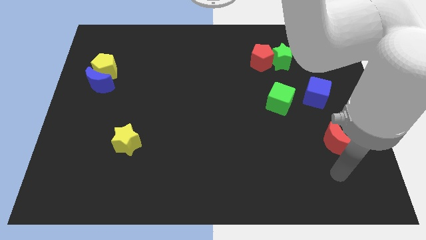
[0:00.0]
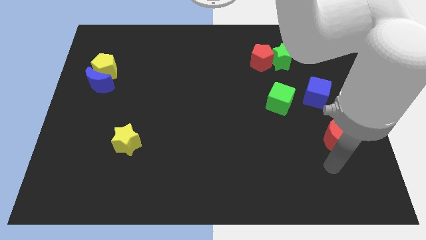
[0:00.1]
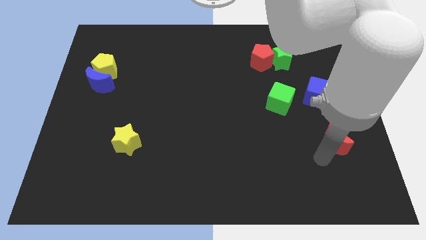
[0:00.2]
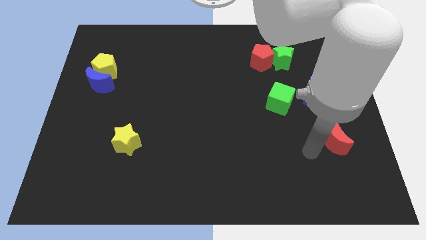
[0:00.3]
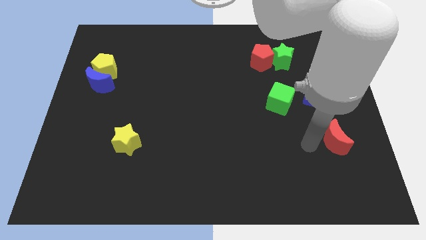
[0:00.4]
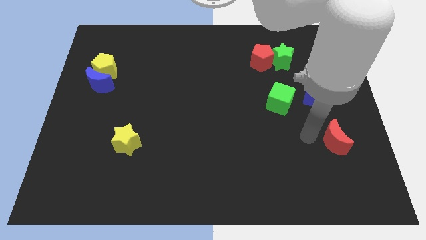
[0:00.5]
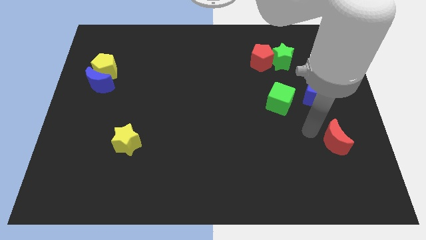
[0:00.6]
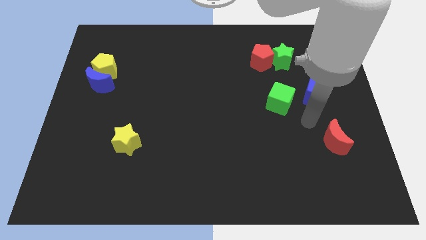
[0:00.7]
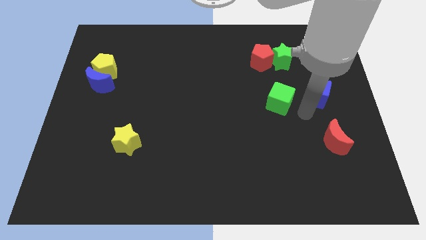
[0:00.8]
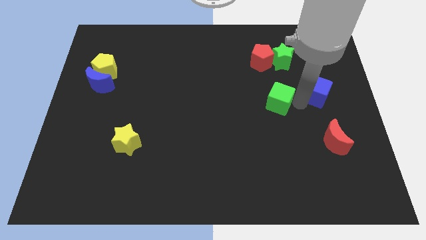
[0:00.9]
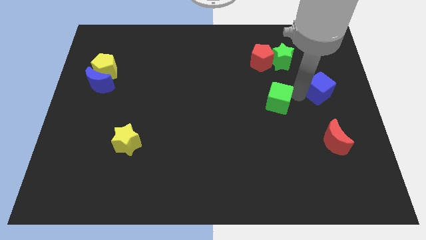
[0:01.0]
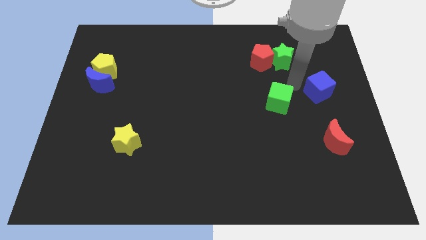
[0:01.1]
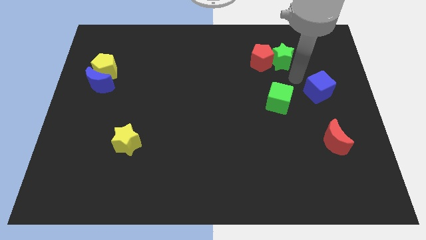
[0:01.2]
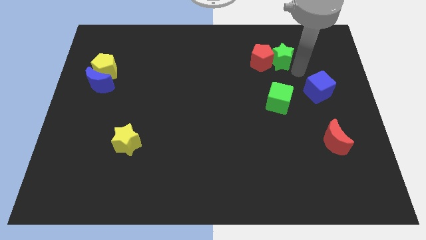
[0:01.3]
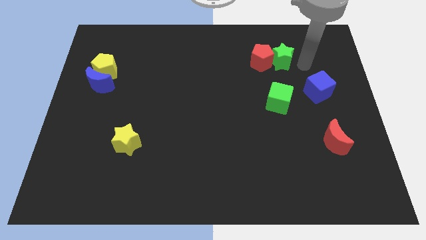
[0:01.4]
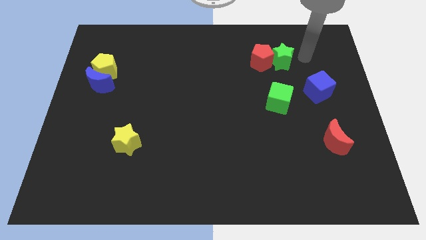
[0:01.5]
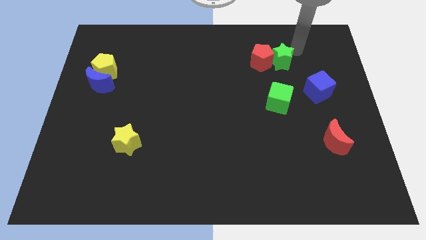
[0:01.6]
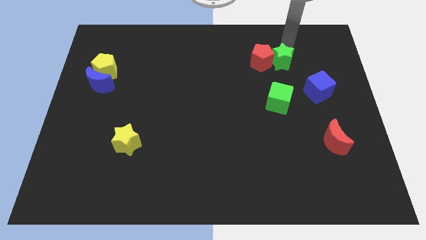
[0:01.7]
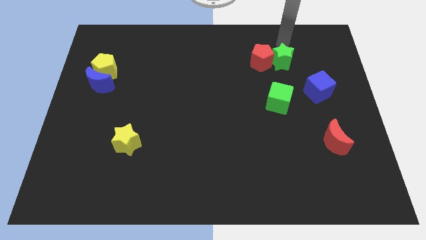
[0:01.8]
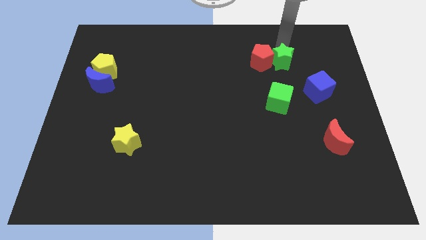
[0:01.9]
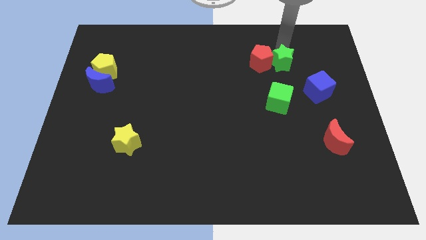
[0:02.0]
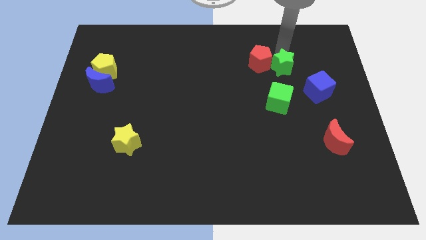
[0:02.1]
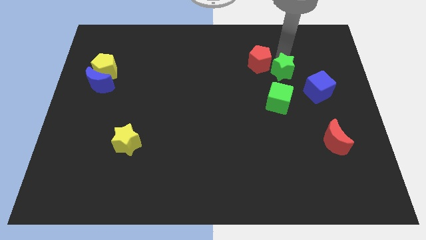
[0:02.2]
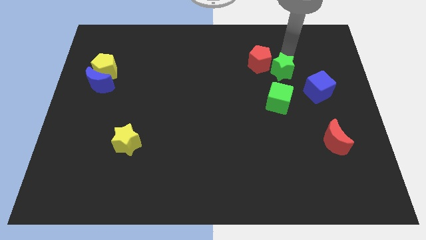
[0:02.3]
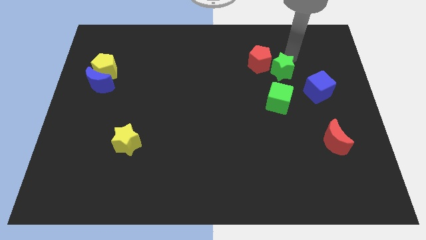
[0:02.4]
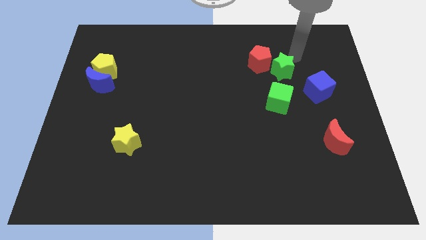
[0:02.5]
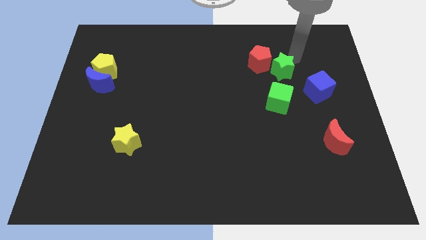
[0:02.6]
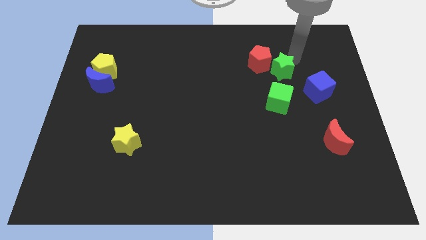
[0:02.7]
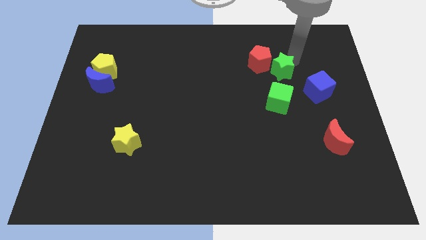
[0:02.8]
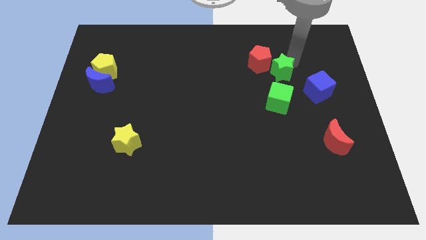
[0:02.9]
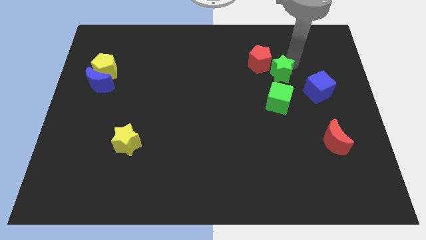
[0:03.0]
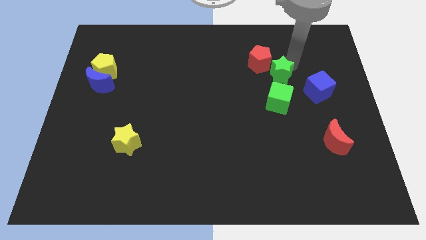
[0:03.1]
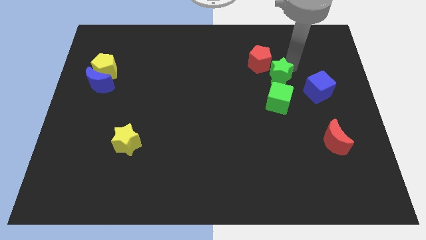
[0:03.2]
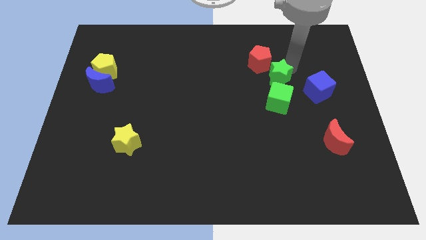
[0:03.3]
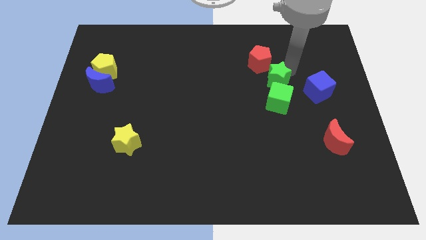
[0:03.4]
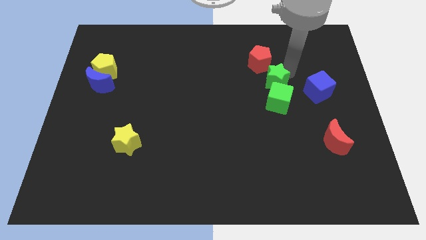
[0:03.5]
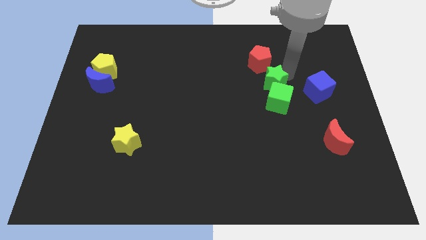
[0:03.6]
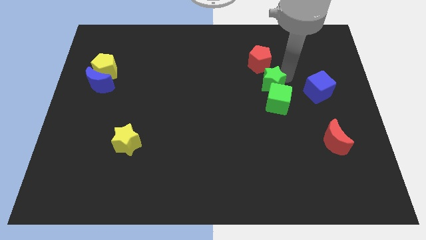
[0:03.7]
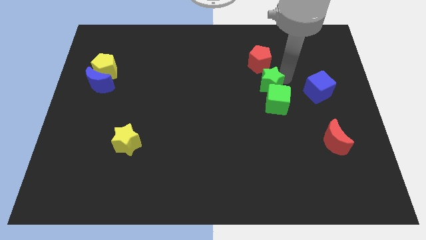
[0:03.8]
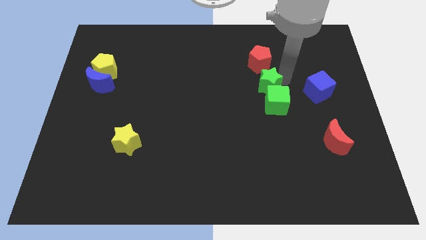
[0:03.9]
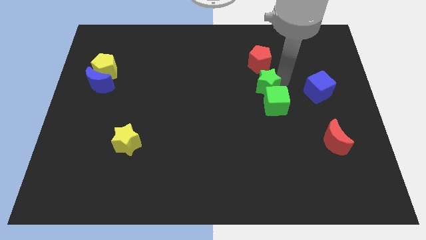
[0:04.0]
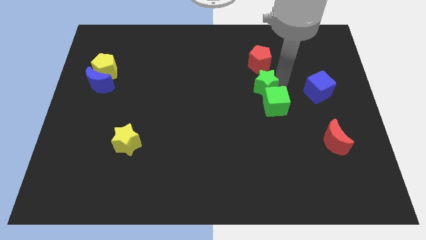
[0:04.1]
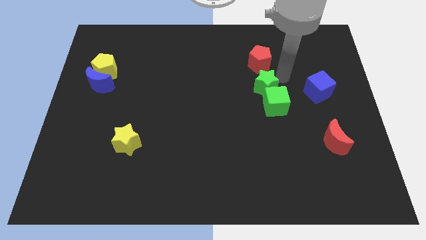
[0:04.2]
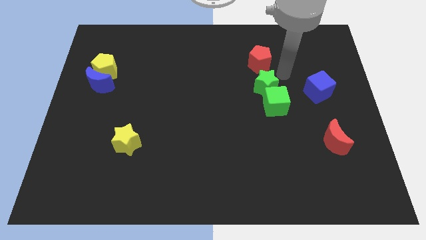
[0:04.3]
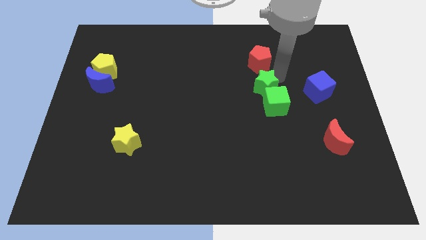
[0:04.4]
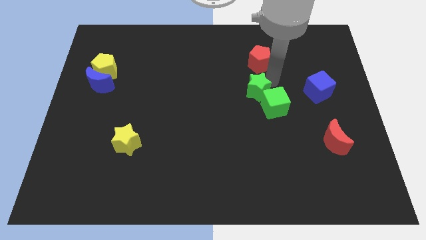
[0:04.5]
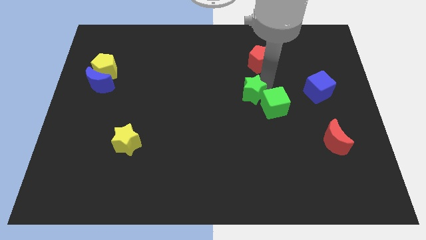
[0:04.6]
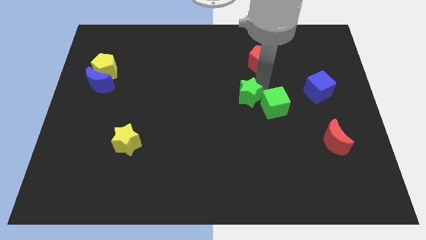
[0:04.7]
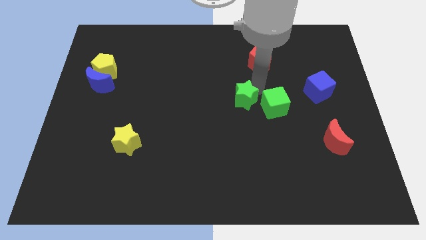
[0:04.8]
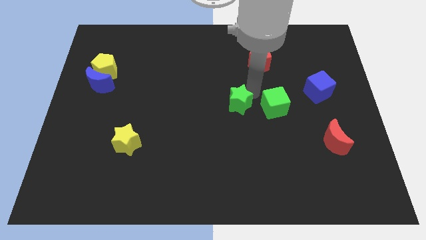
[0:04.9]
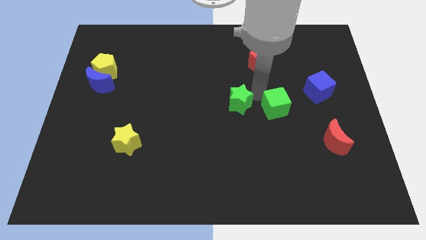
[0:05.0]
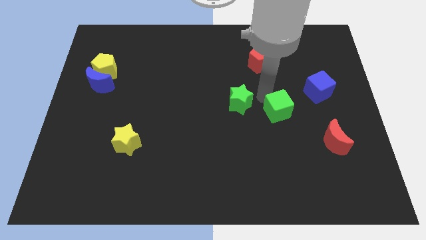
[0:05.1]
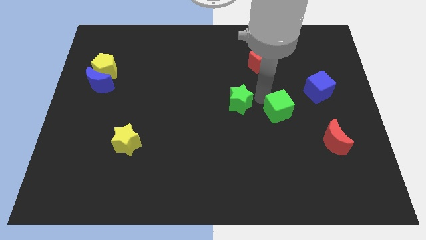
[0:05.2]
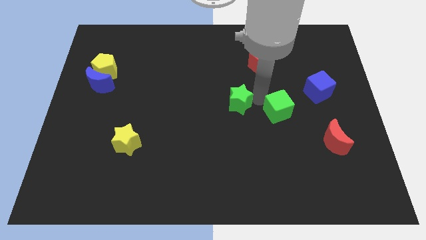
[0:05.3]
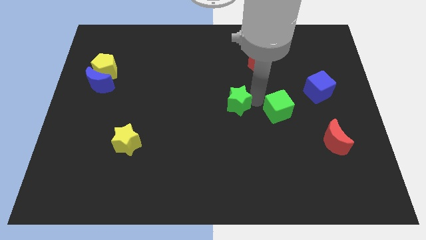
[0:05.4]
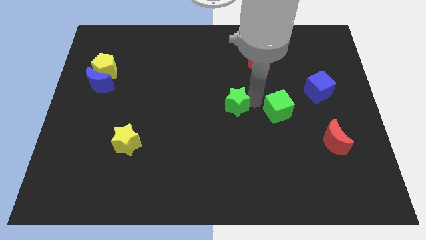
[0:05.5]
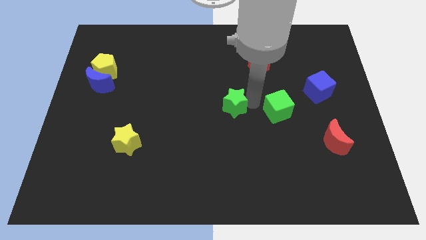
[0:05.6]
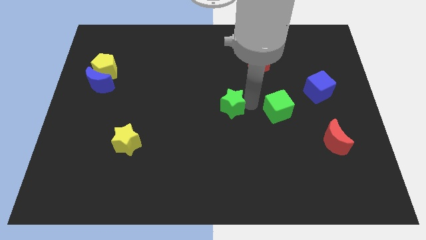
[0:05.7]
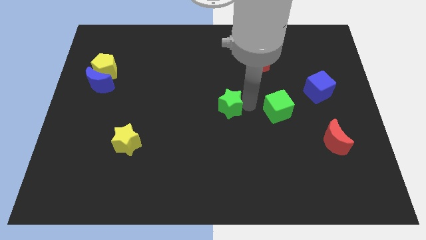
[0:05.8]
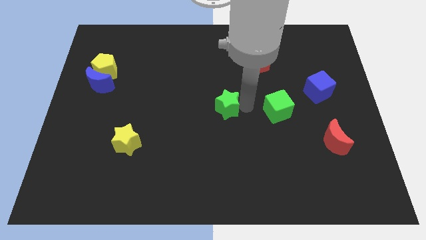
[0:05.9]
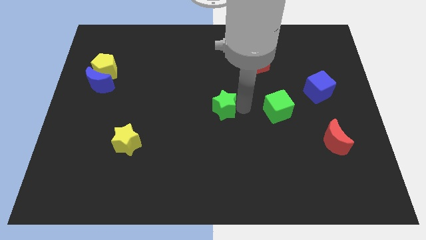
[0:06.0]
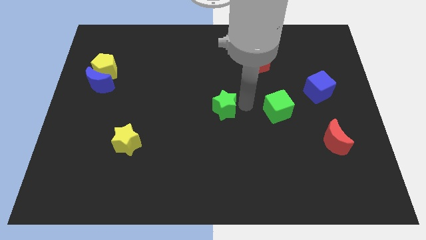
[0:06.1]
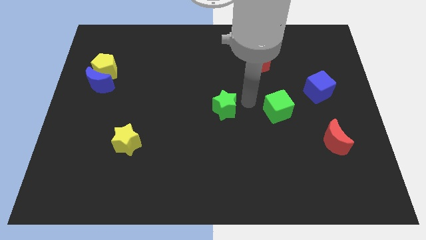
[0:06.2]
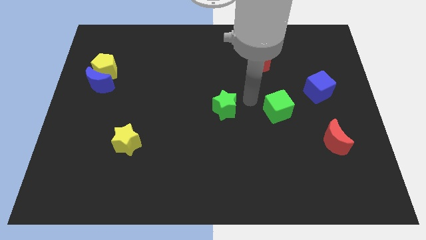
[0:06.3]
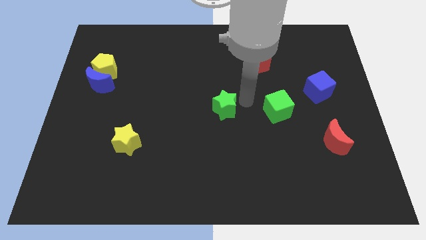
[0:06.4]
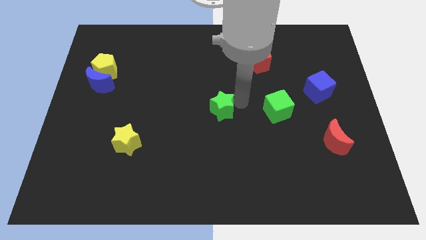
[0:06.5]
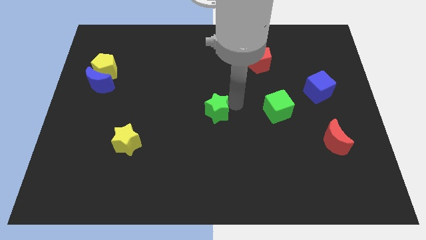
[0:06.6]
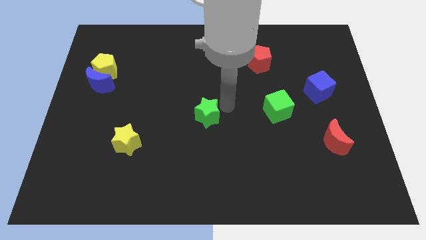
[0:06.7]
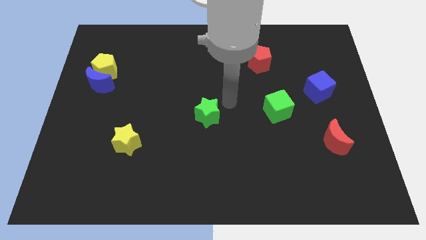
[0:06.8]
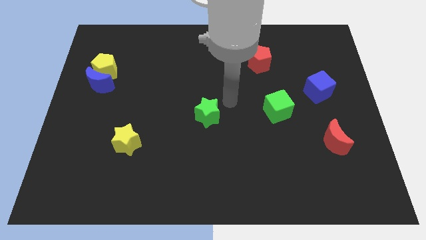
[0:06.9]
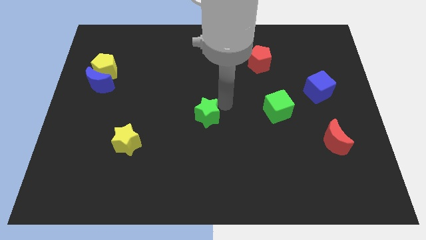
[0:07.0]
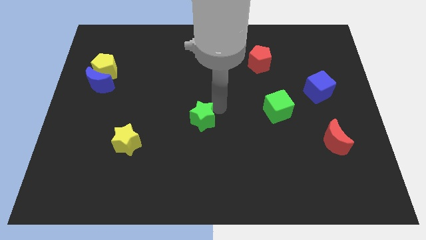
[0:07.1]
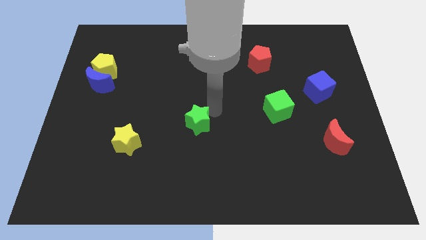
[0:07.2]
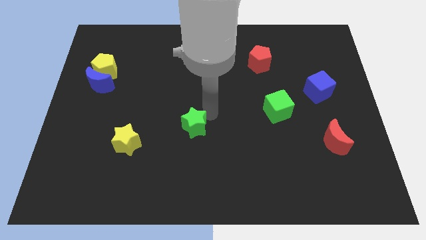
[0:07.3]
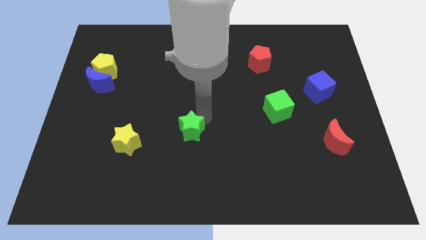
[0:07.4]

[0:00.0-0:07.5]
put the green star right of the yellow star

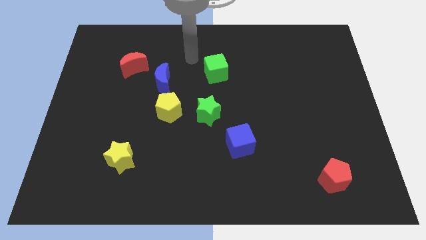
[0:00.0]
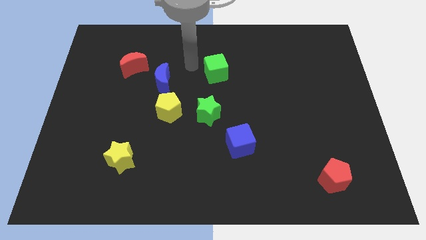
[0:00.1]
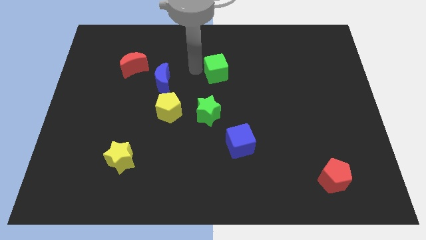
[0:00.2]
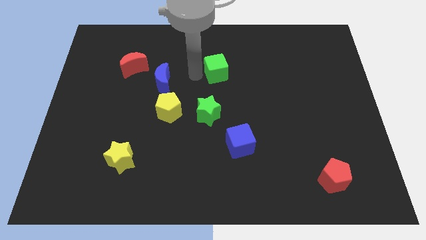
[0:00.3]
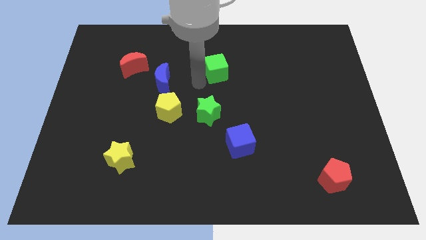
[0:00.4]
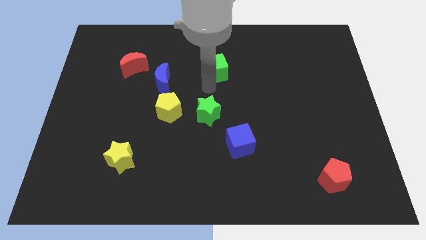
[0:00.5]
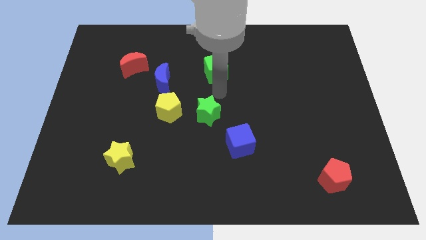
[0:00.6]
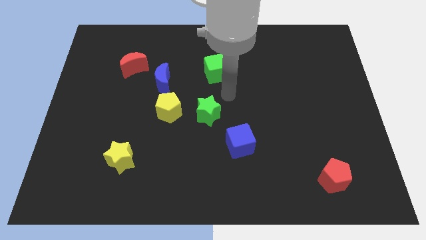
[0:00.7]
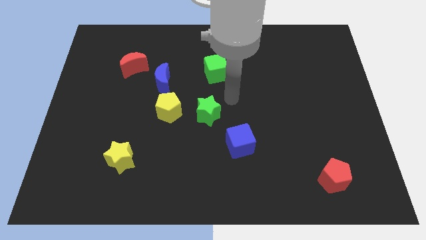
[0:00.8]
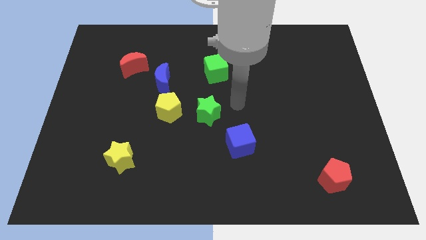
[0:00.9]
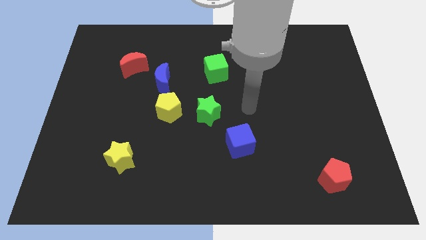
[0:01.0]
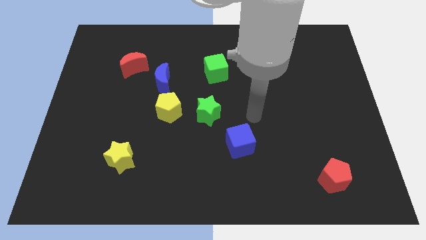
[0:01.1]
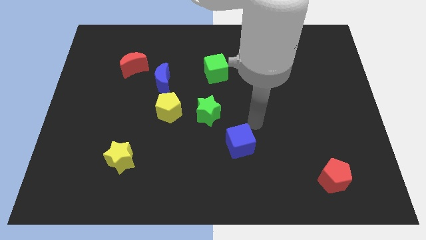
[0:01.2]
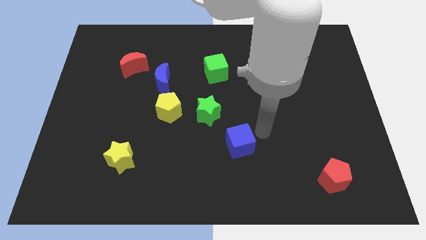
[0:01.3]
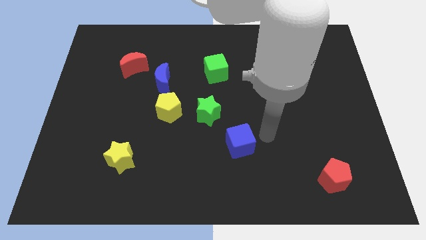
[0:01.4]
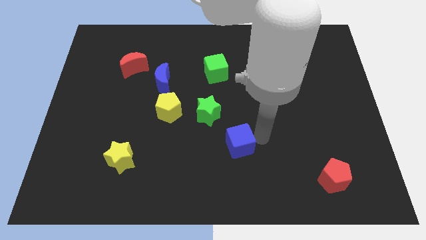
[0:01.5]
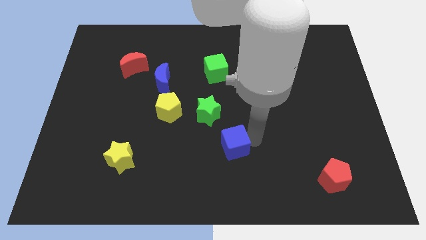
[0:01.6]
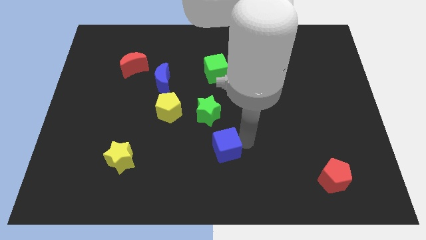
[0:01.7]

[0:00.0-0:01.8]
move the blue cube to the bottom side of the green star
